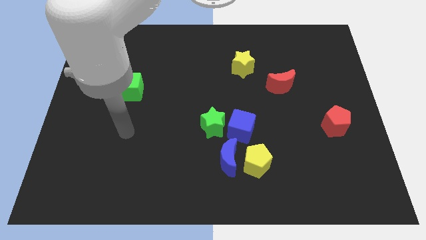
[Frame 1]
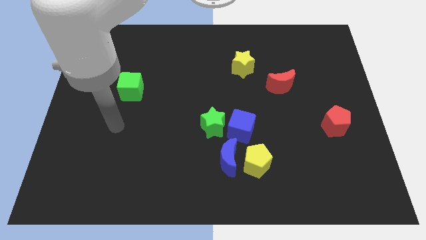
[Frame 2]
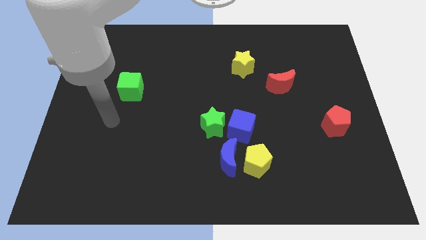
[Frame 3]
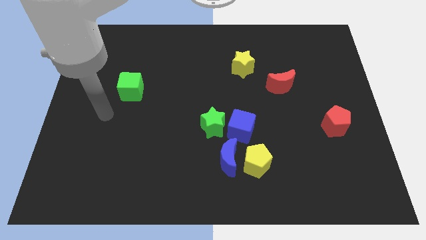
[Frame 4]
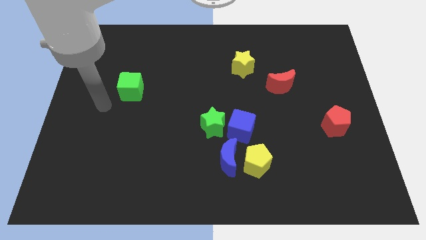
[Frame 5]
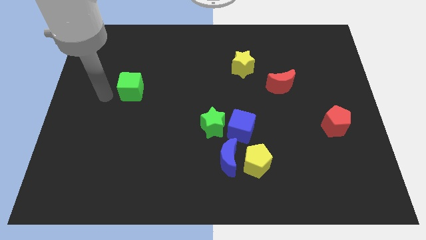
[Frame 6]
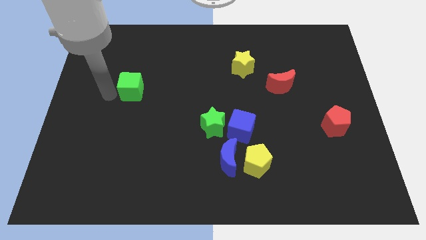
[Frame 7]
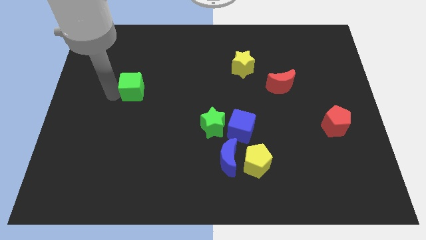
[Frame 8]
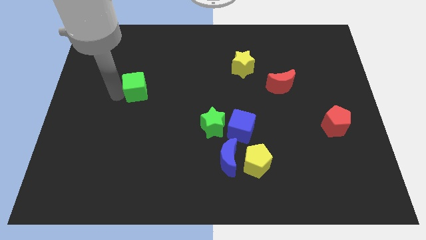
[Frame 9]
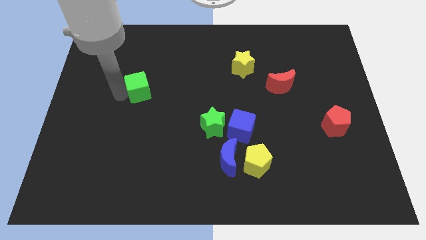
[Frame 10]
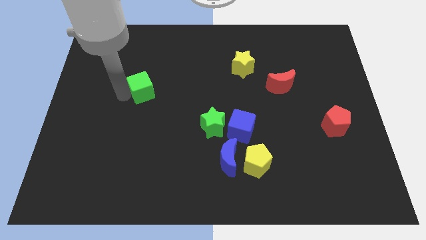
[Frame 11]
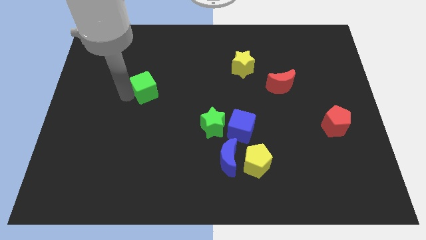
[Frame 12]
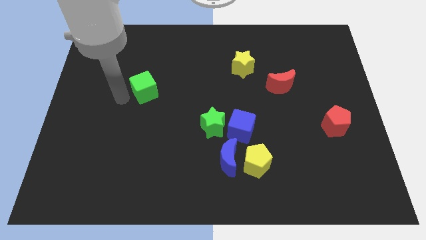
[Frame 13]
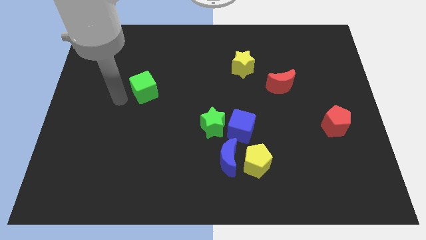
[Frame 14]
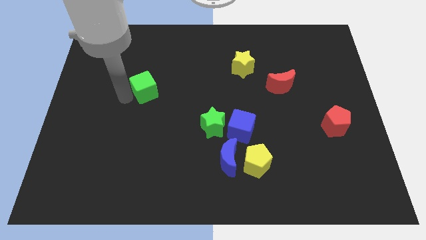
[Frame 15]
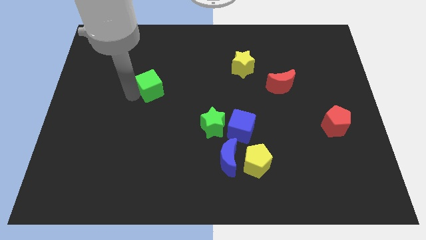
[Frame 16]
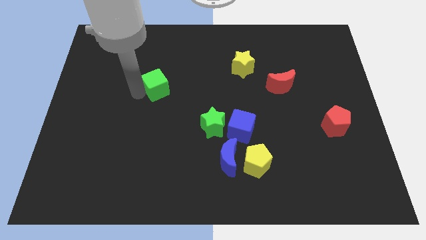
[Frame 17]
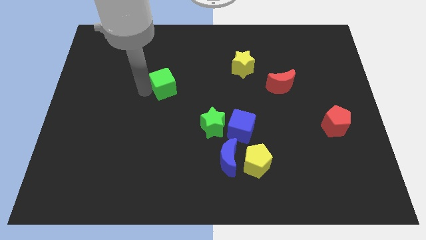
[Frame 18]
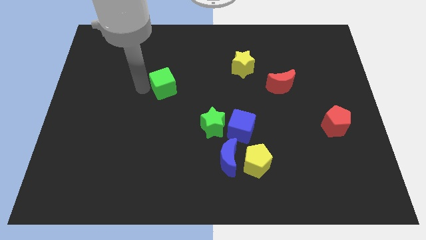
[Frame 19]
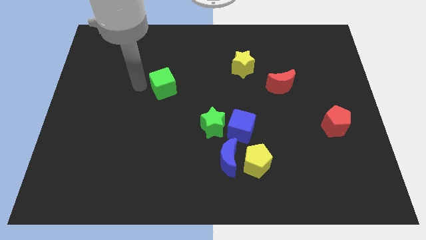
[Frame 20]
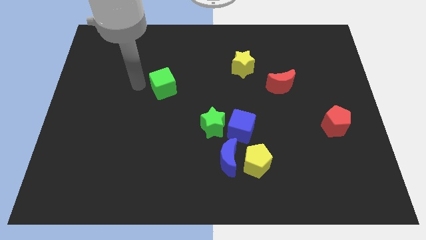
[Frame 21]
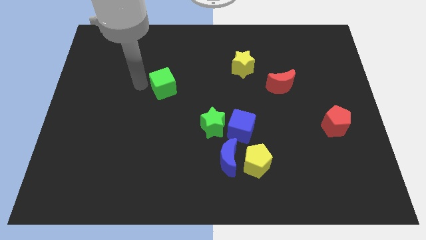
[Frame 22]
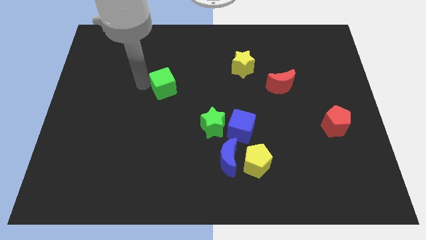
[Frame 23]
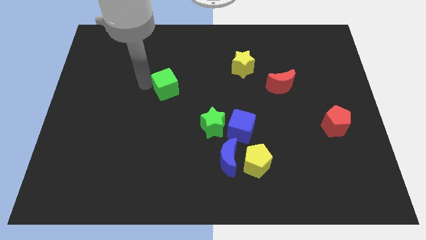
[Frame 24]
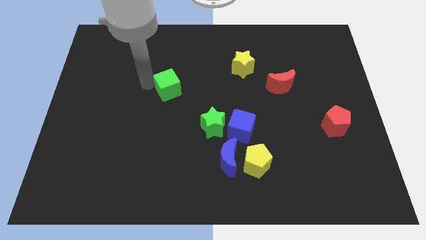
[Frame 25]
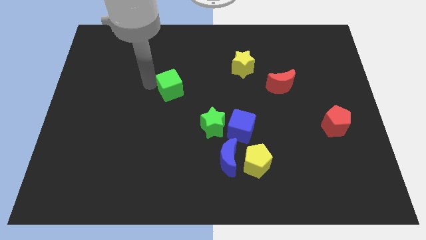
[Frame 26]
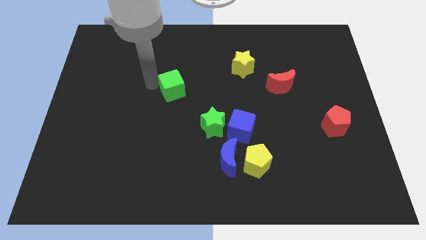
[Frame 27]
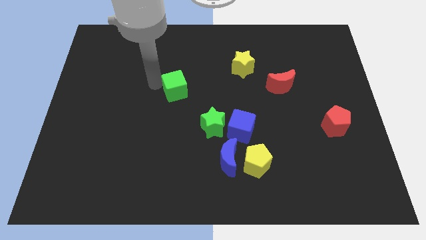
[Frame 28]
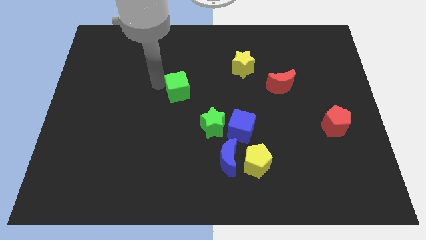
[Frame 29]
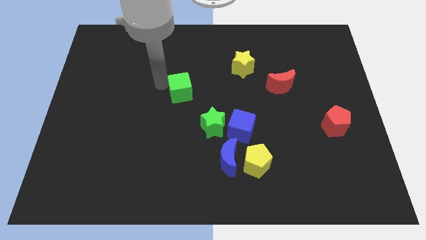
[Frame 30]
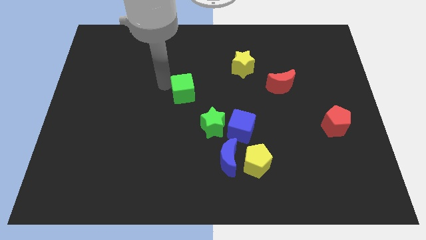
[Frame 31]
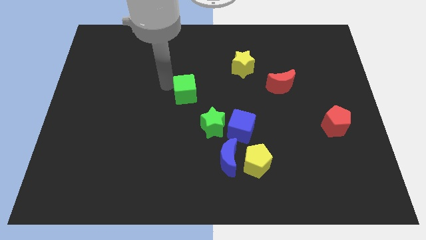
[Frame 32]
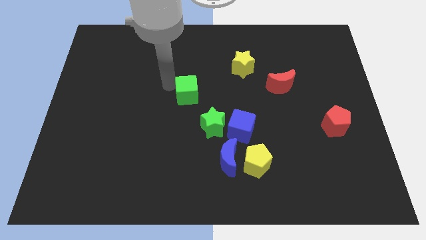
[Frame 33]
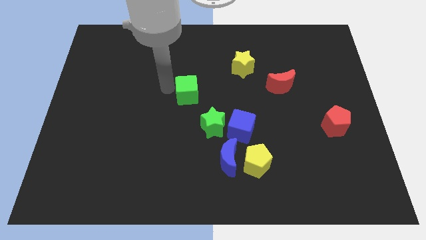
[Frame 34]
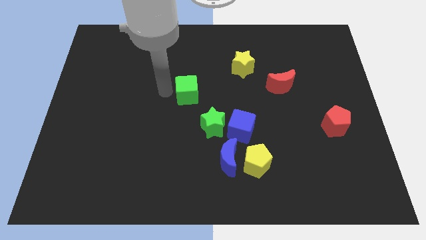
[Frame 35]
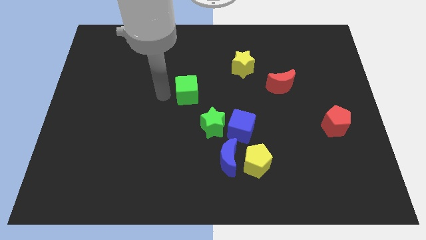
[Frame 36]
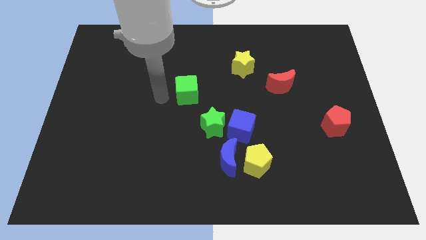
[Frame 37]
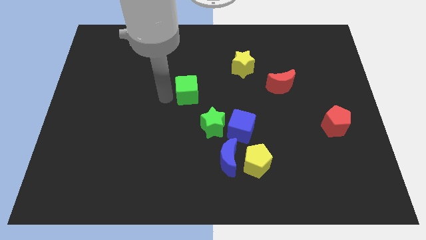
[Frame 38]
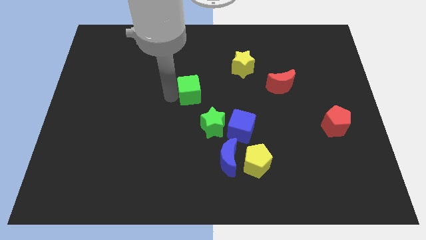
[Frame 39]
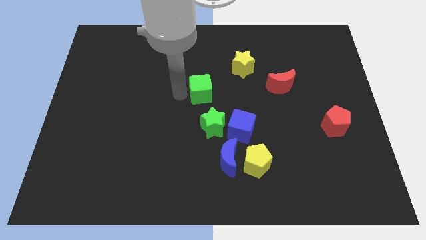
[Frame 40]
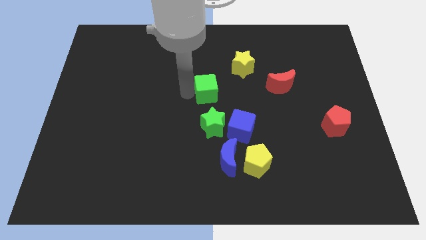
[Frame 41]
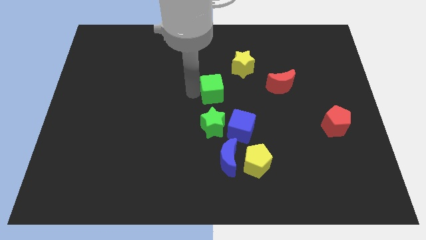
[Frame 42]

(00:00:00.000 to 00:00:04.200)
move the green cube to the right

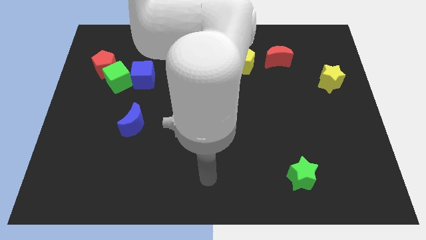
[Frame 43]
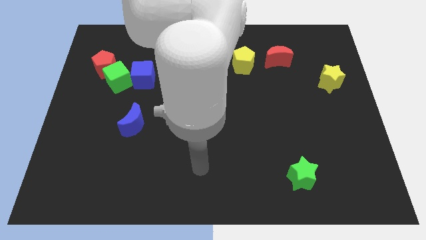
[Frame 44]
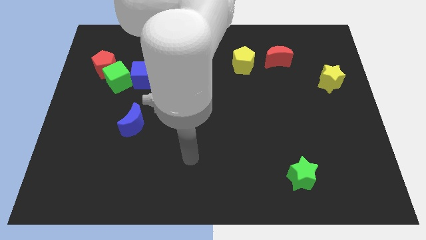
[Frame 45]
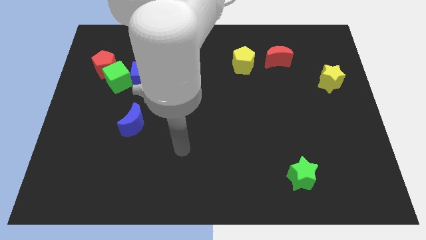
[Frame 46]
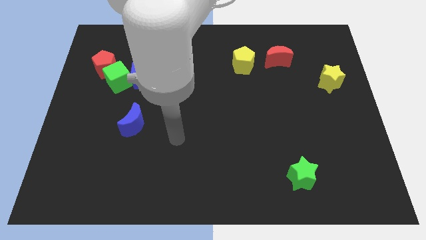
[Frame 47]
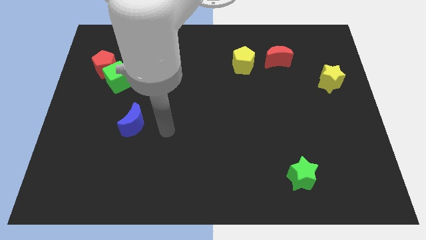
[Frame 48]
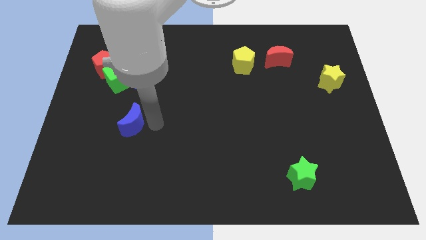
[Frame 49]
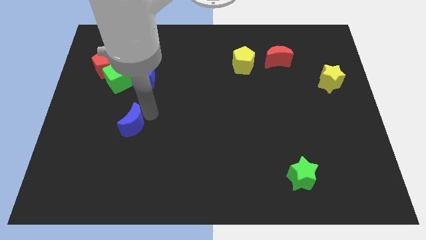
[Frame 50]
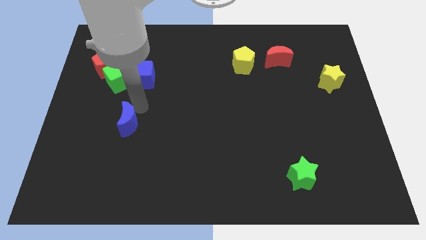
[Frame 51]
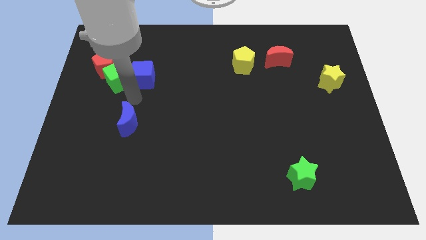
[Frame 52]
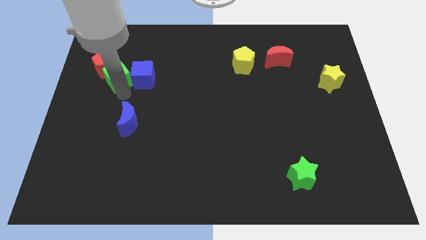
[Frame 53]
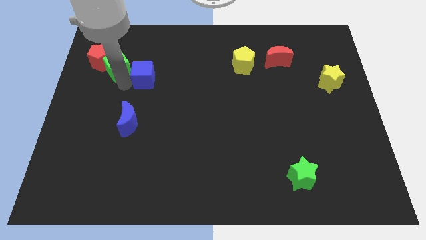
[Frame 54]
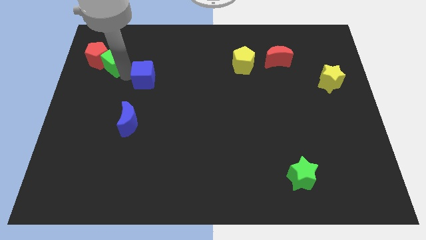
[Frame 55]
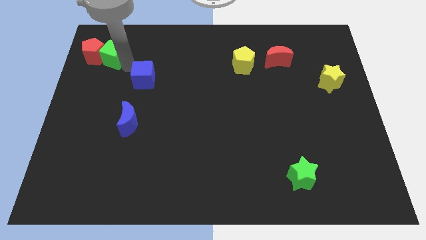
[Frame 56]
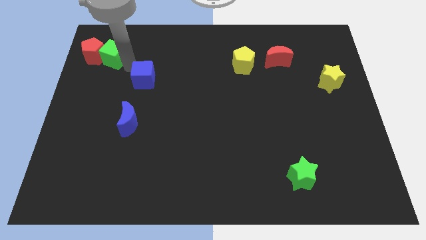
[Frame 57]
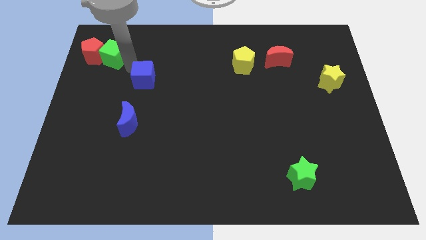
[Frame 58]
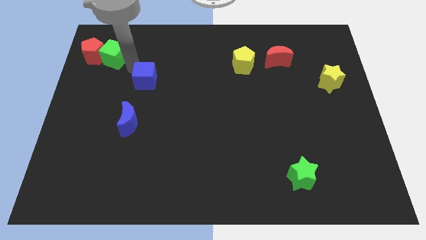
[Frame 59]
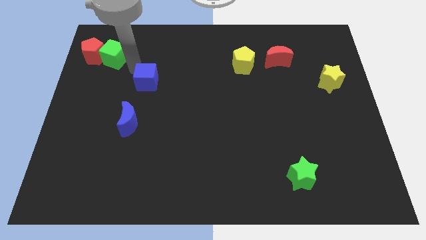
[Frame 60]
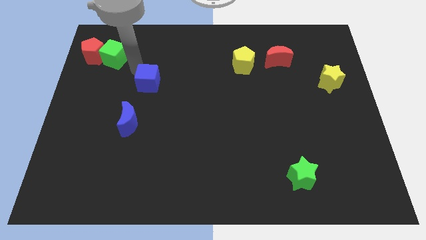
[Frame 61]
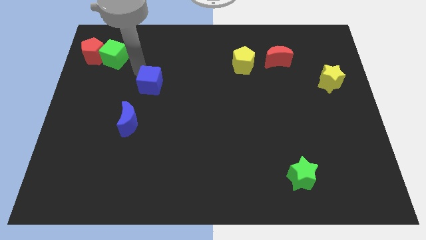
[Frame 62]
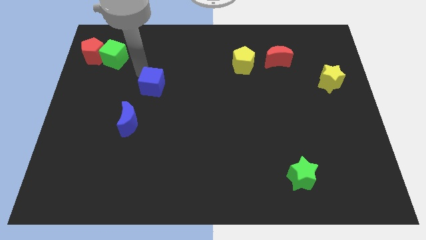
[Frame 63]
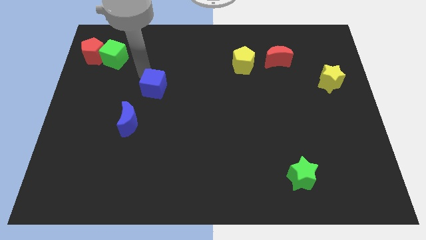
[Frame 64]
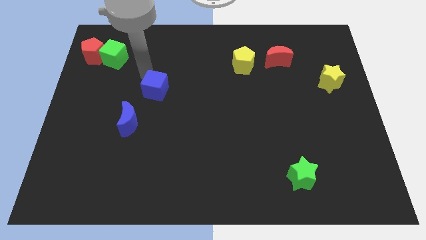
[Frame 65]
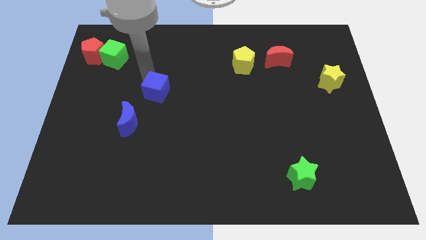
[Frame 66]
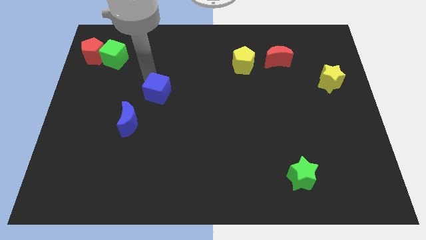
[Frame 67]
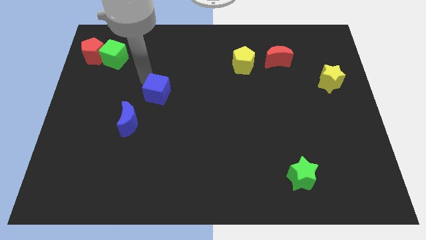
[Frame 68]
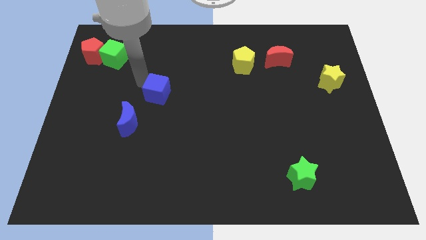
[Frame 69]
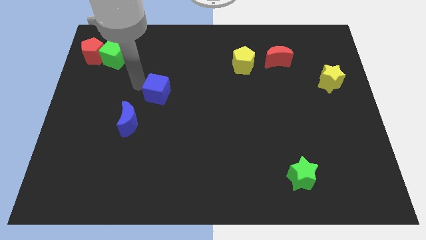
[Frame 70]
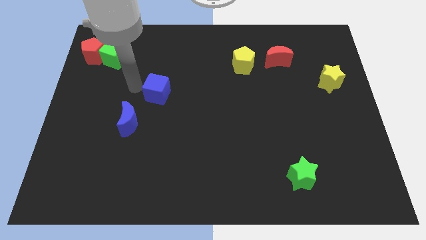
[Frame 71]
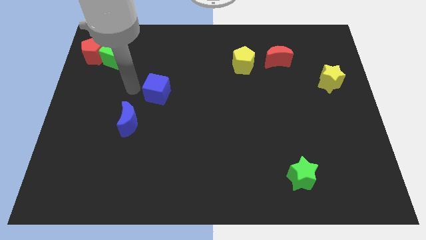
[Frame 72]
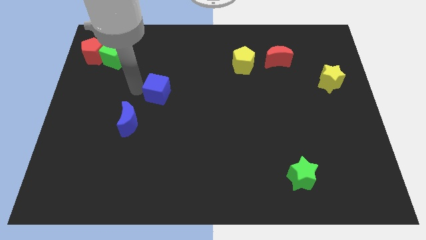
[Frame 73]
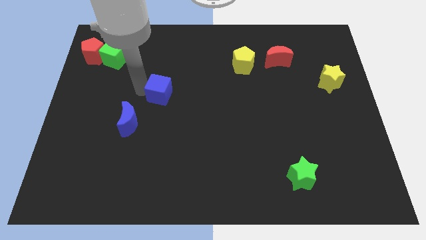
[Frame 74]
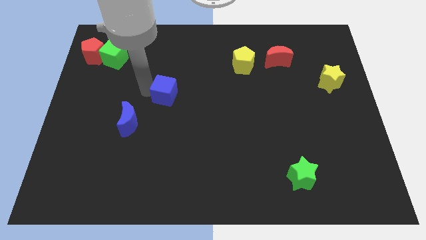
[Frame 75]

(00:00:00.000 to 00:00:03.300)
slightly push the blue cube diagonally downwards and right

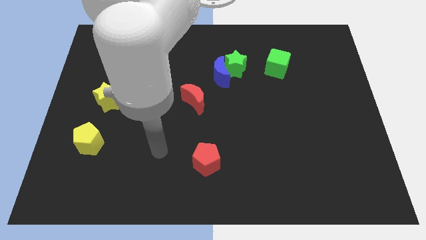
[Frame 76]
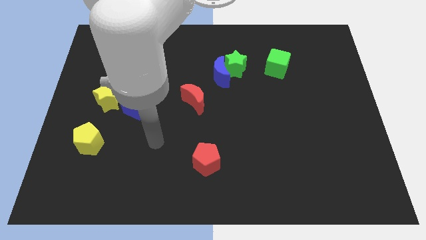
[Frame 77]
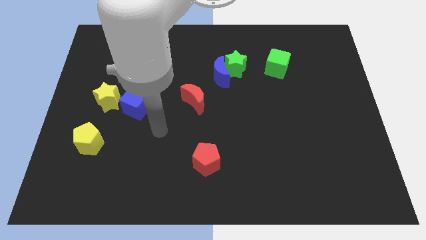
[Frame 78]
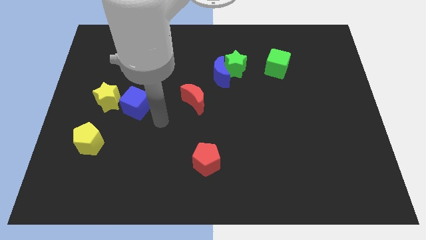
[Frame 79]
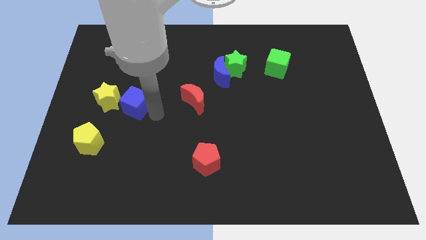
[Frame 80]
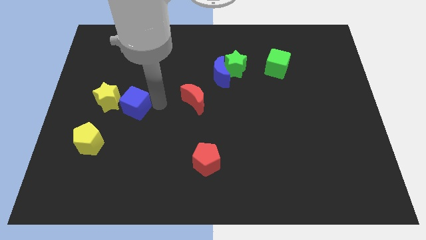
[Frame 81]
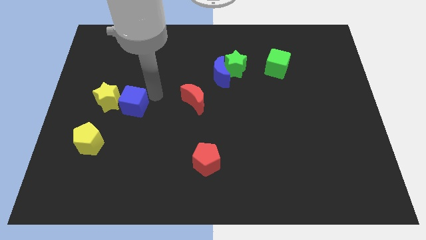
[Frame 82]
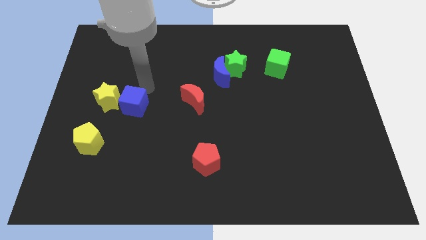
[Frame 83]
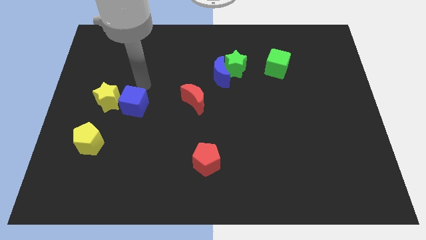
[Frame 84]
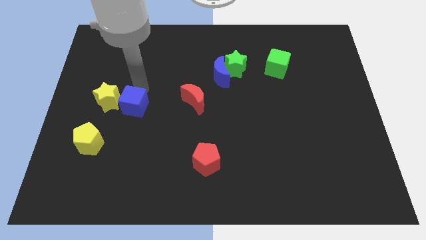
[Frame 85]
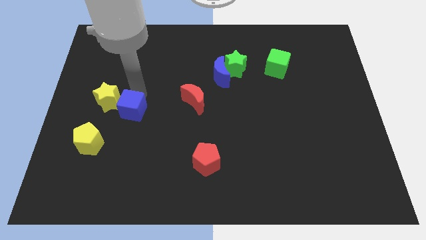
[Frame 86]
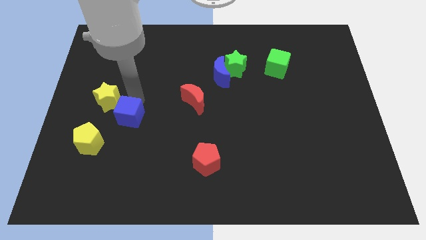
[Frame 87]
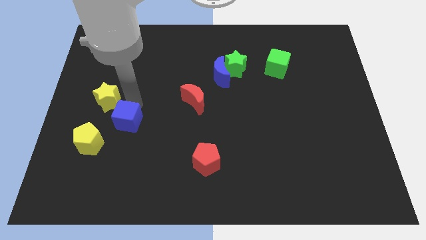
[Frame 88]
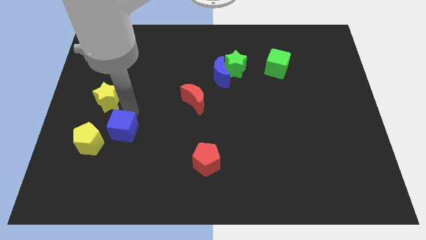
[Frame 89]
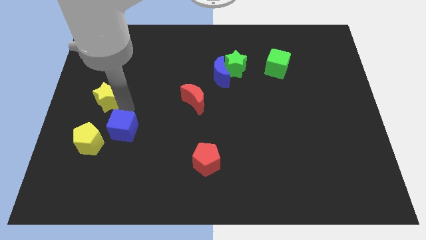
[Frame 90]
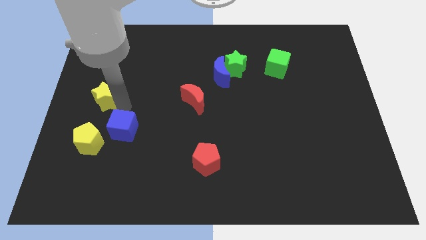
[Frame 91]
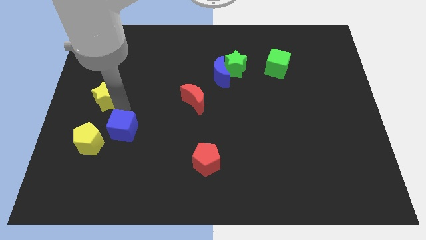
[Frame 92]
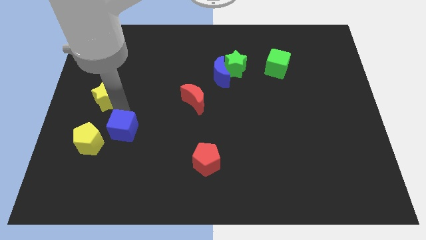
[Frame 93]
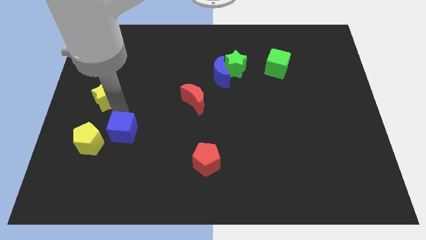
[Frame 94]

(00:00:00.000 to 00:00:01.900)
push the blue cube downwards slightly
